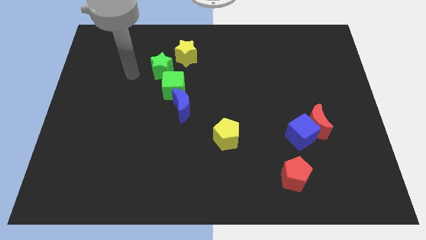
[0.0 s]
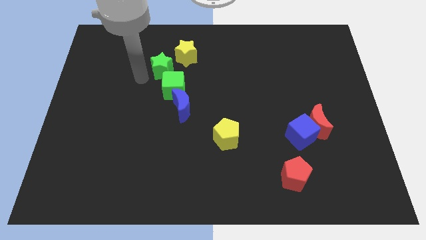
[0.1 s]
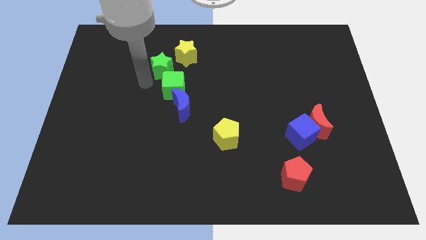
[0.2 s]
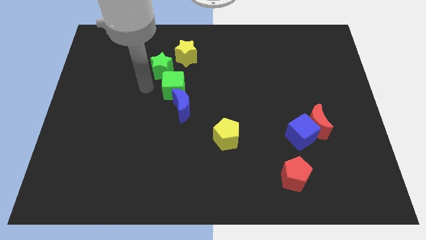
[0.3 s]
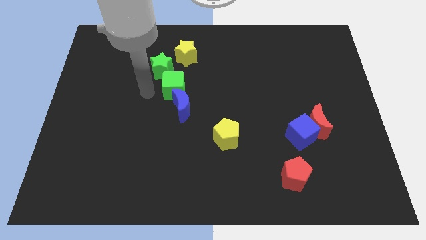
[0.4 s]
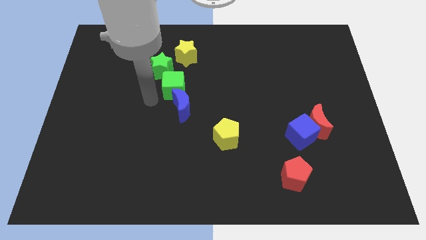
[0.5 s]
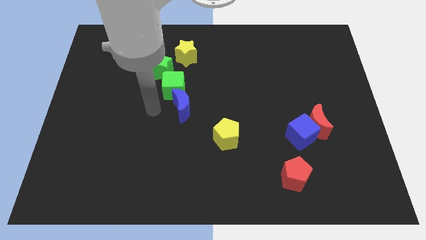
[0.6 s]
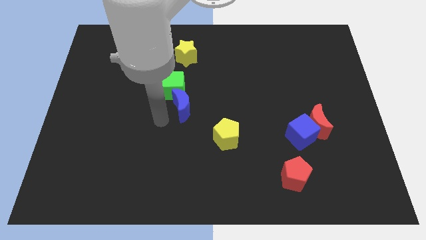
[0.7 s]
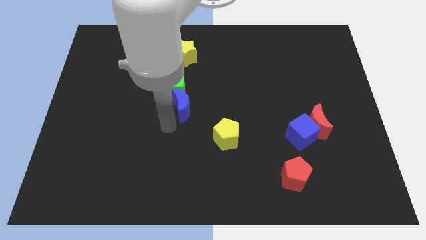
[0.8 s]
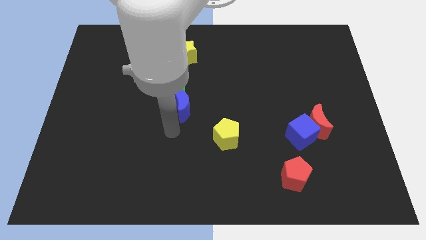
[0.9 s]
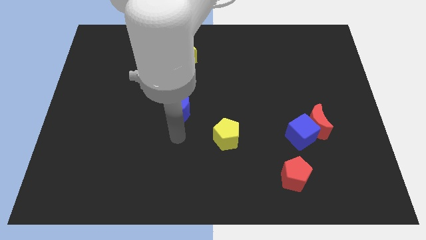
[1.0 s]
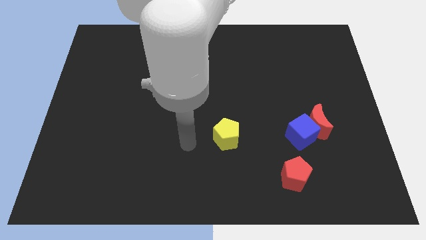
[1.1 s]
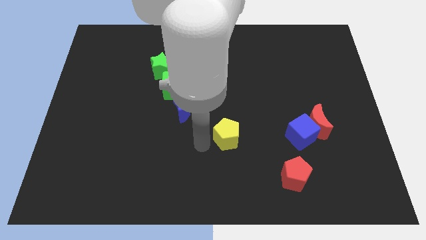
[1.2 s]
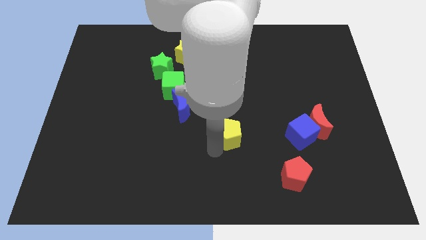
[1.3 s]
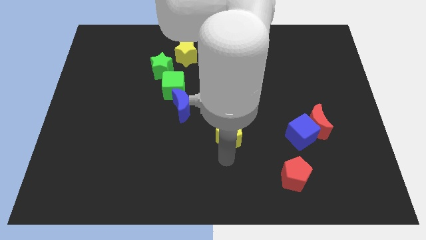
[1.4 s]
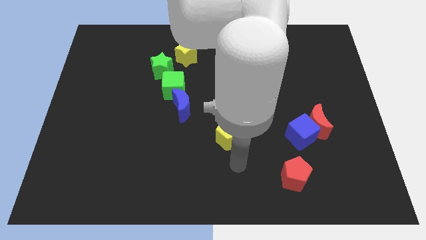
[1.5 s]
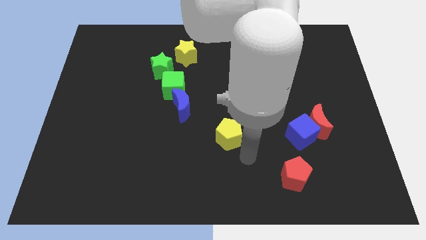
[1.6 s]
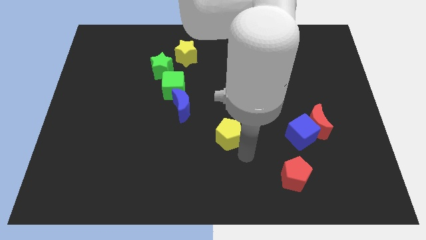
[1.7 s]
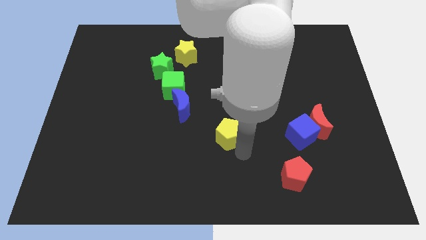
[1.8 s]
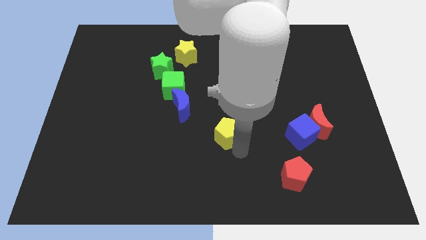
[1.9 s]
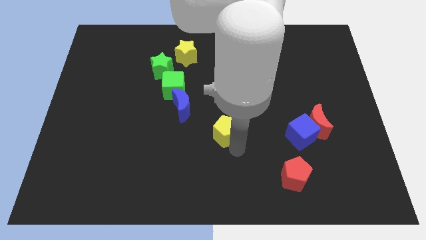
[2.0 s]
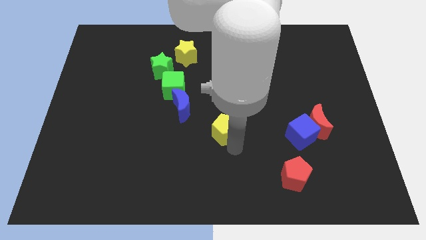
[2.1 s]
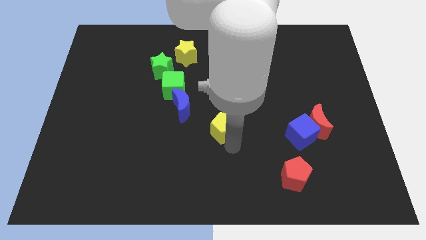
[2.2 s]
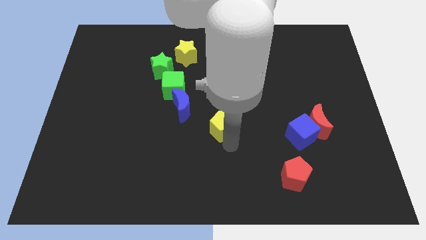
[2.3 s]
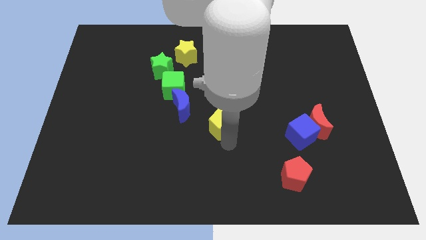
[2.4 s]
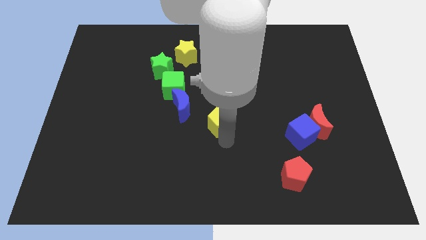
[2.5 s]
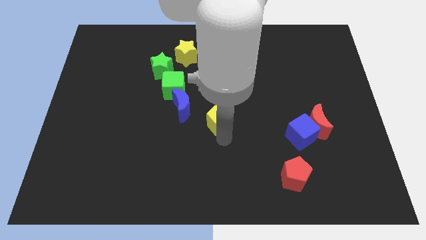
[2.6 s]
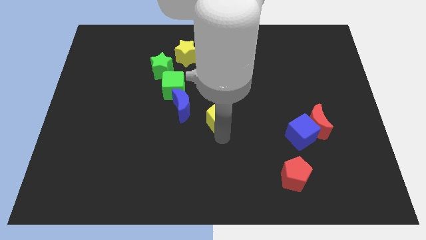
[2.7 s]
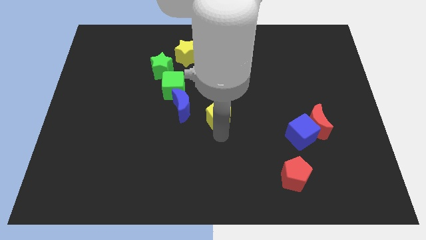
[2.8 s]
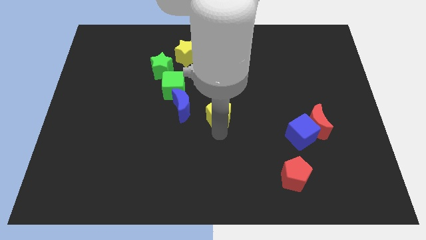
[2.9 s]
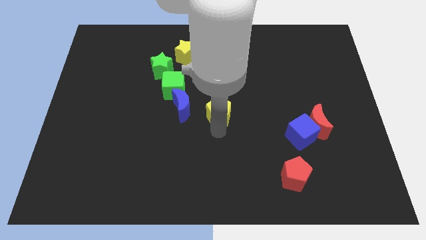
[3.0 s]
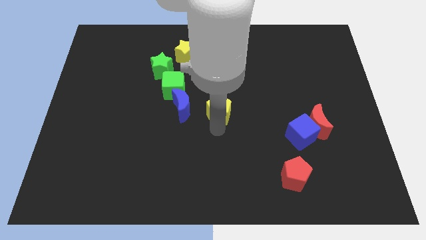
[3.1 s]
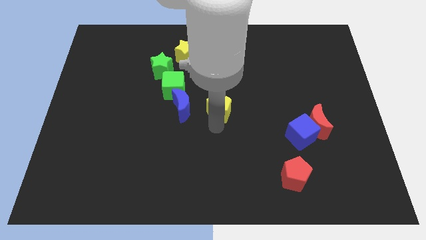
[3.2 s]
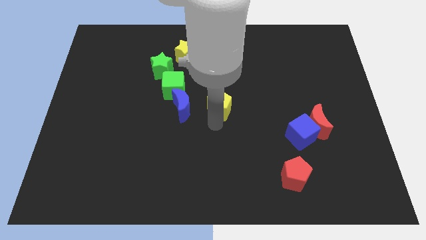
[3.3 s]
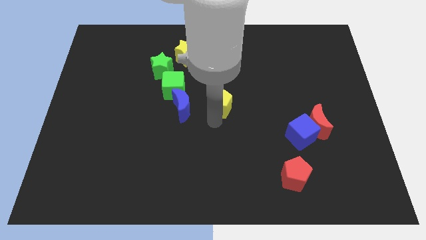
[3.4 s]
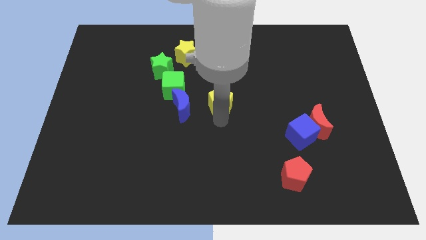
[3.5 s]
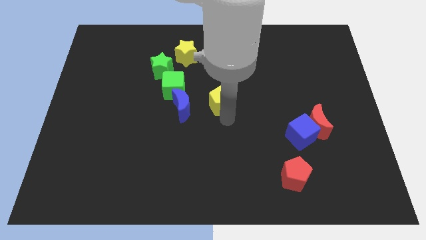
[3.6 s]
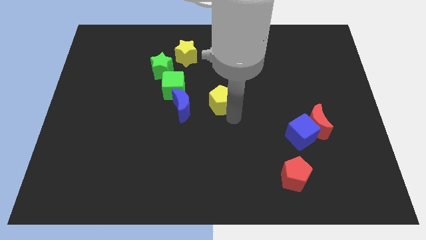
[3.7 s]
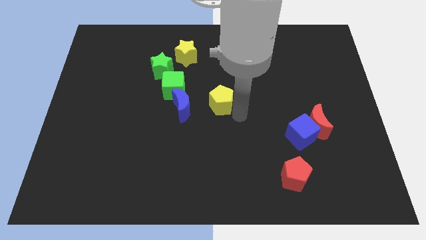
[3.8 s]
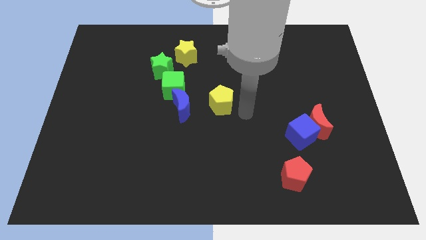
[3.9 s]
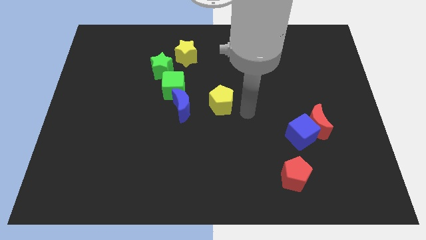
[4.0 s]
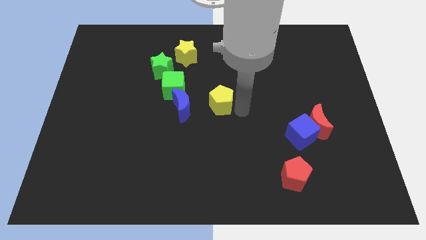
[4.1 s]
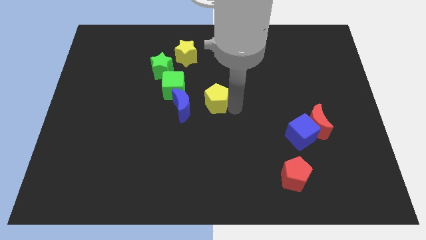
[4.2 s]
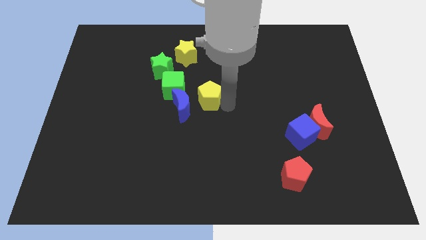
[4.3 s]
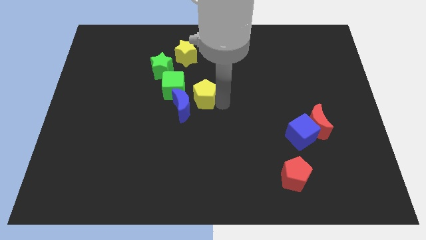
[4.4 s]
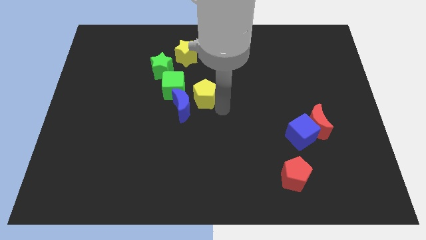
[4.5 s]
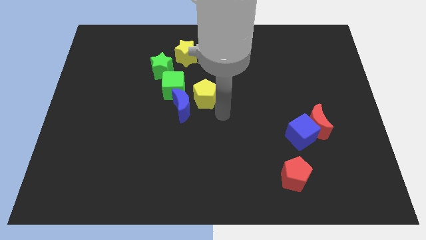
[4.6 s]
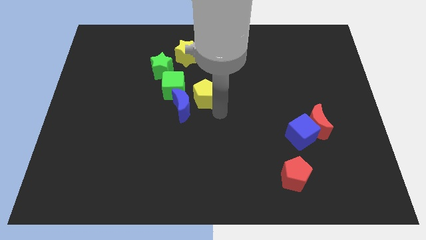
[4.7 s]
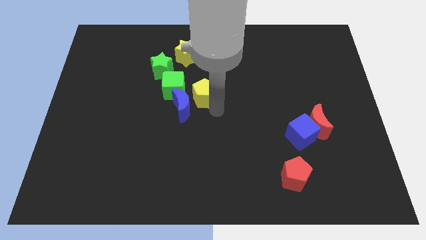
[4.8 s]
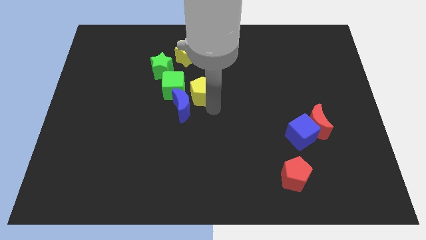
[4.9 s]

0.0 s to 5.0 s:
push the yellow pentagon above the blue moon

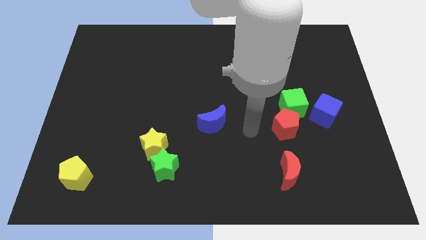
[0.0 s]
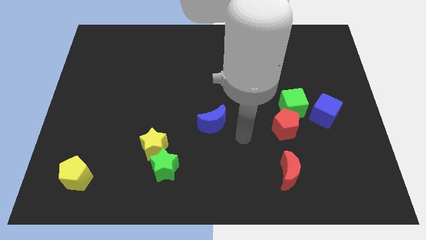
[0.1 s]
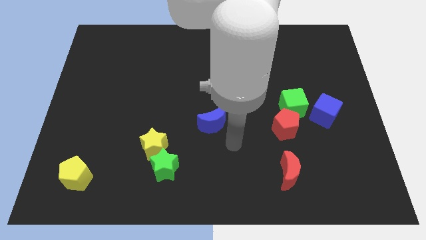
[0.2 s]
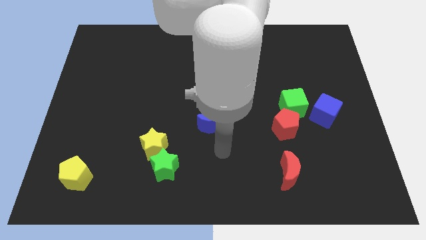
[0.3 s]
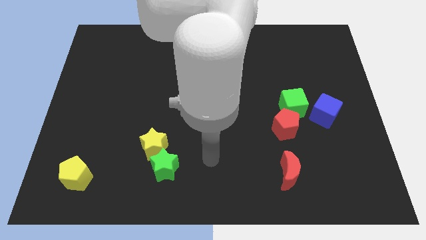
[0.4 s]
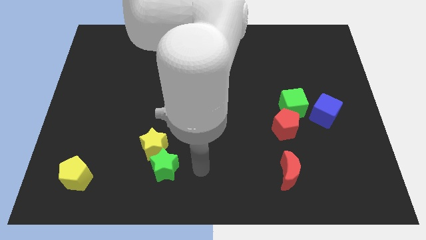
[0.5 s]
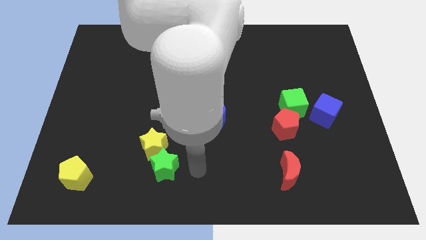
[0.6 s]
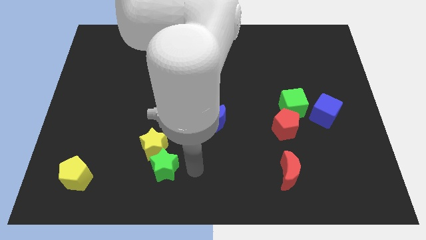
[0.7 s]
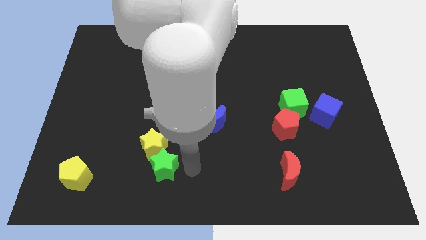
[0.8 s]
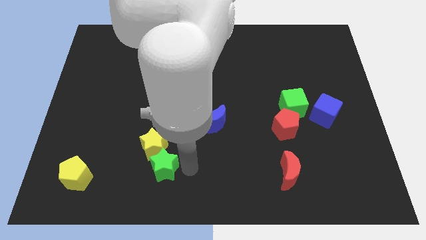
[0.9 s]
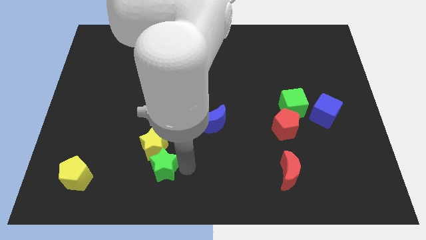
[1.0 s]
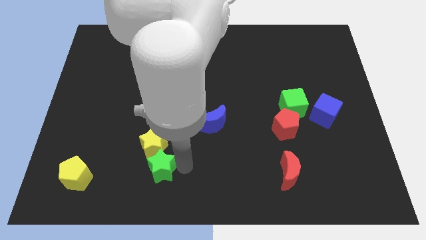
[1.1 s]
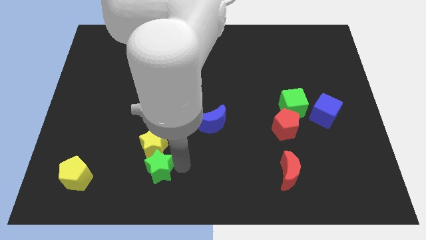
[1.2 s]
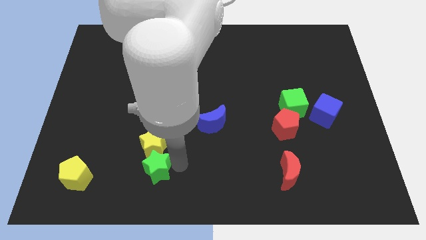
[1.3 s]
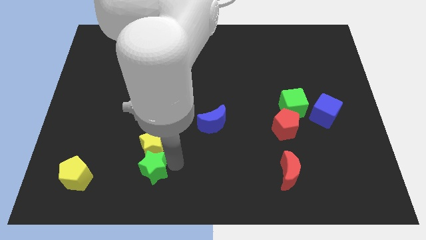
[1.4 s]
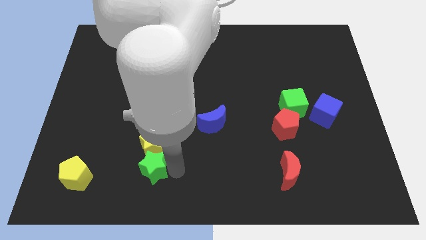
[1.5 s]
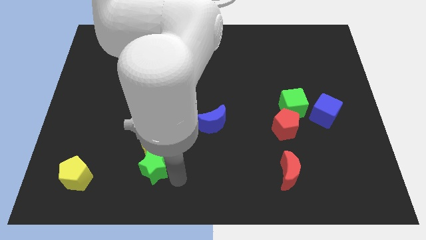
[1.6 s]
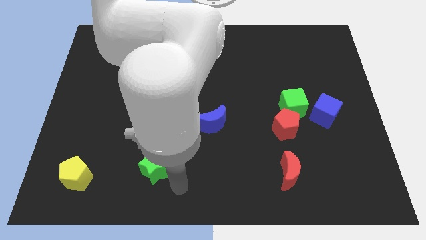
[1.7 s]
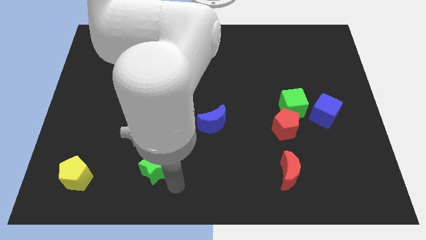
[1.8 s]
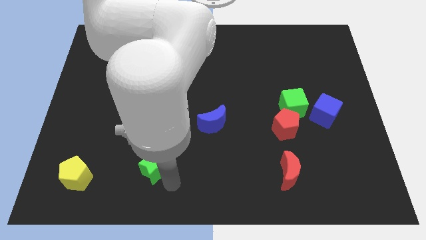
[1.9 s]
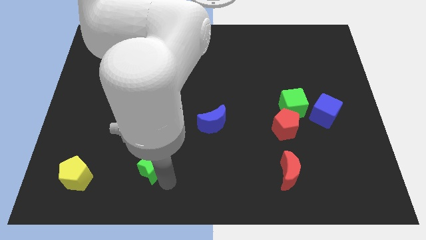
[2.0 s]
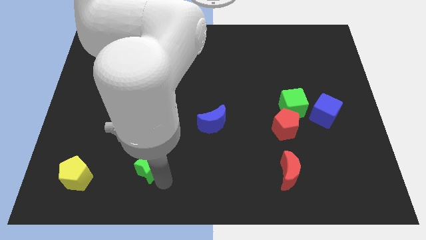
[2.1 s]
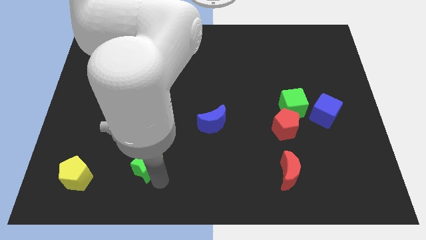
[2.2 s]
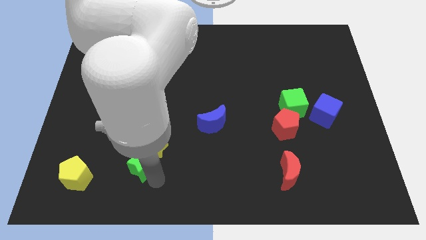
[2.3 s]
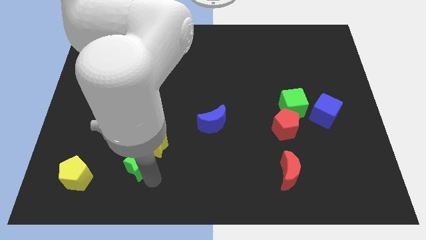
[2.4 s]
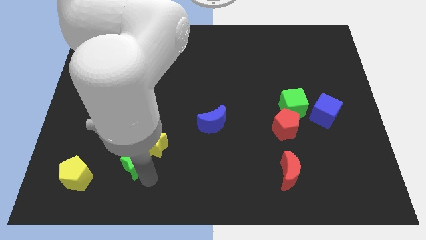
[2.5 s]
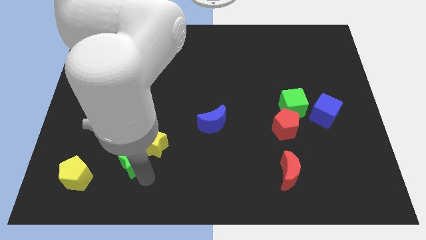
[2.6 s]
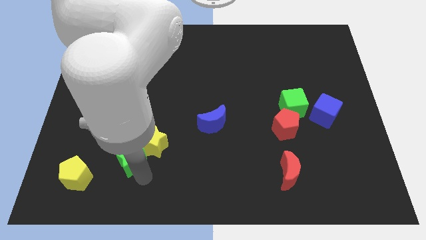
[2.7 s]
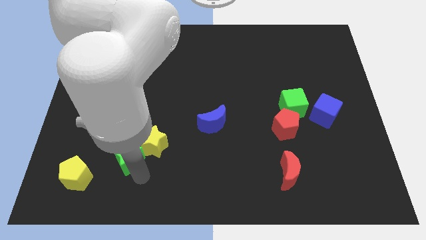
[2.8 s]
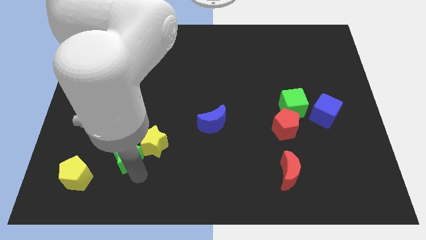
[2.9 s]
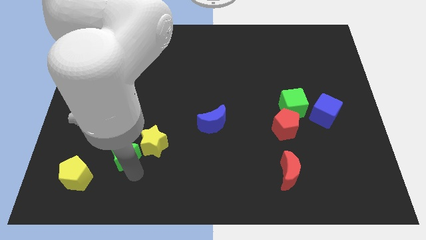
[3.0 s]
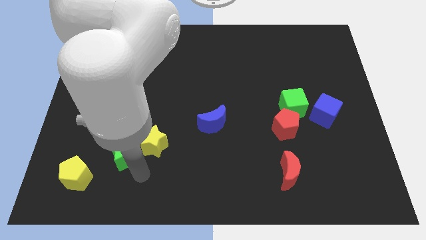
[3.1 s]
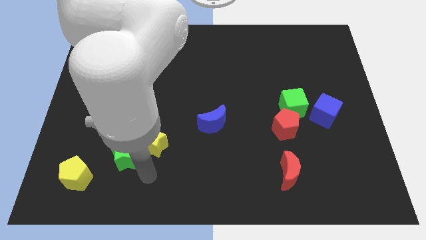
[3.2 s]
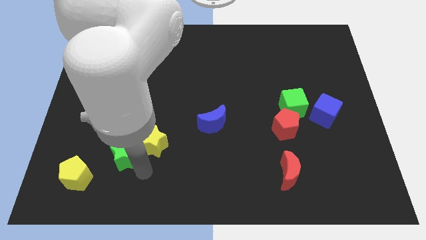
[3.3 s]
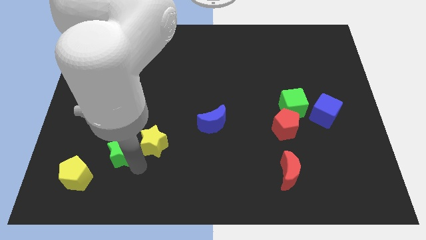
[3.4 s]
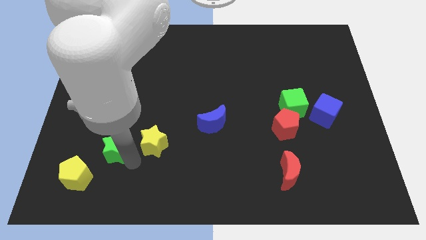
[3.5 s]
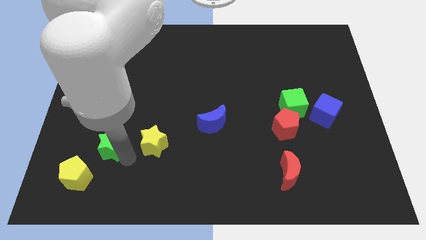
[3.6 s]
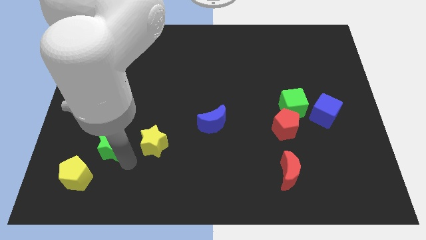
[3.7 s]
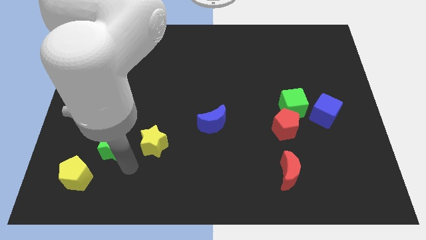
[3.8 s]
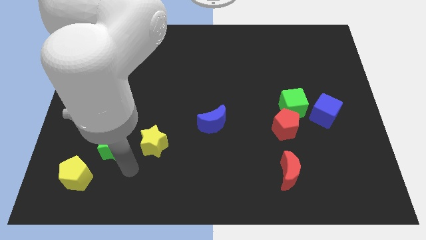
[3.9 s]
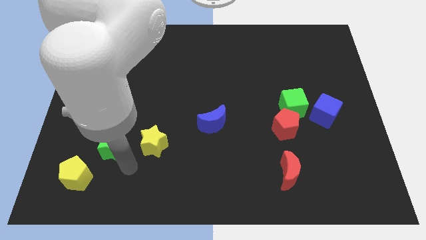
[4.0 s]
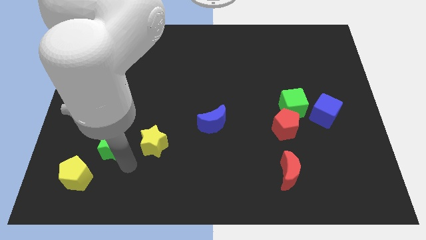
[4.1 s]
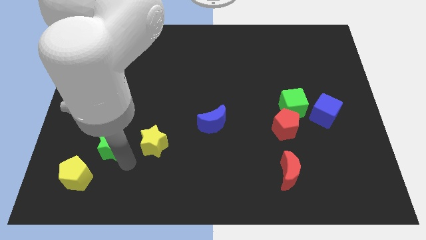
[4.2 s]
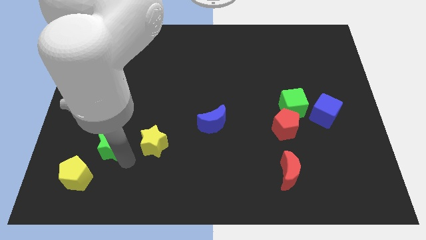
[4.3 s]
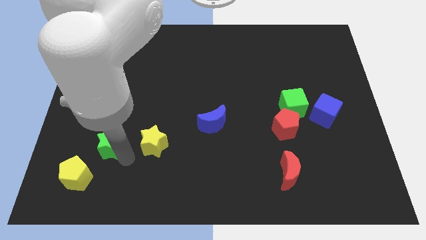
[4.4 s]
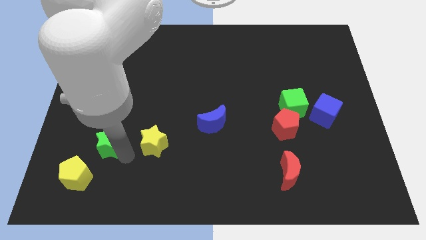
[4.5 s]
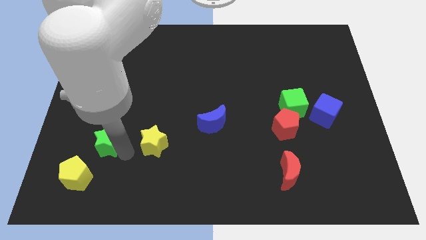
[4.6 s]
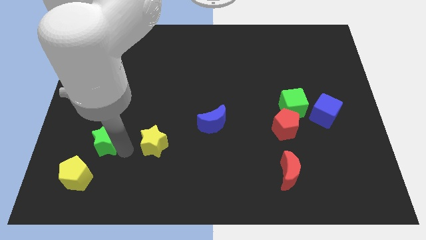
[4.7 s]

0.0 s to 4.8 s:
move the green star to the top of the yellow pentagon
